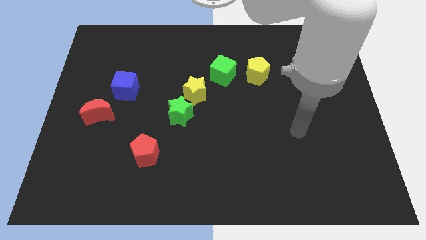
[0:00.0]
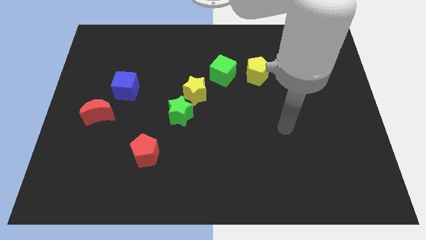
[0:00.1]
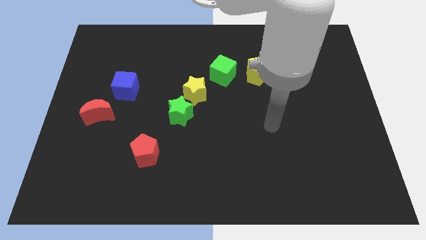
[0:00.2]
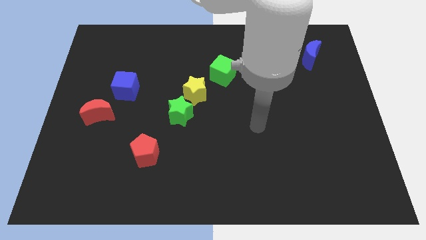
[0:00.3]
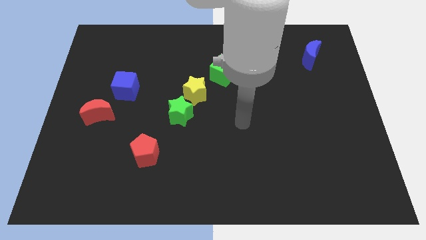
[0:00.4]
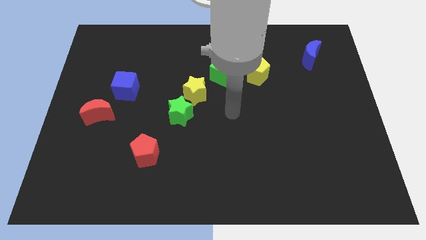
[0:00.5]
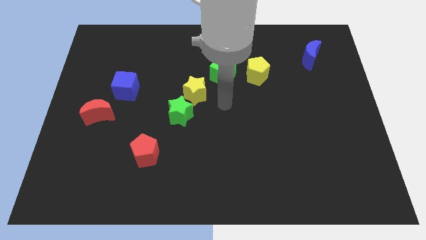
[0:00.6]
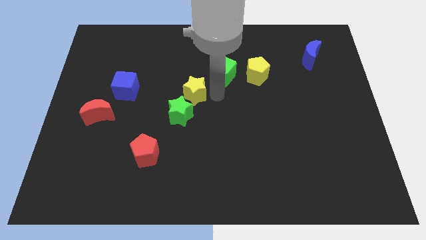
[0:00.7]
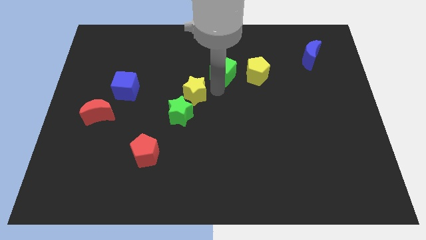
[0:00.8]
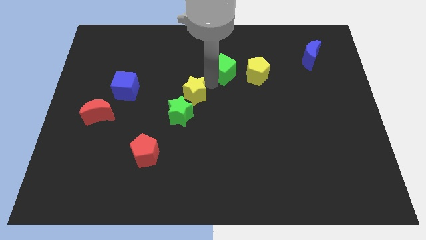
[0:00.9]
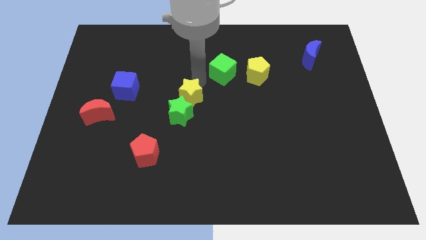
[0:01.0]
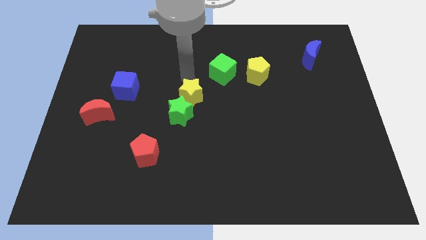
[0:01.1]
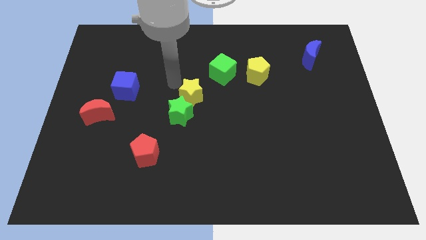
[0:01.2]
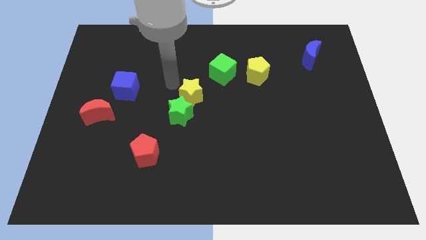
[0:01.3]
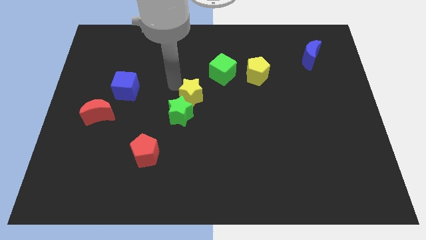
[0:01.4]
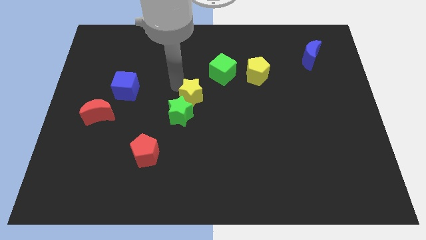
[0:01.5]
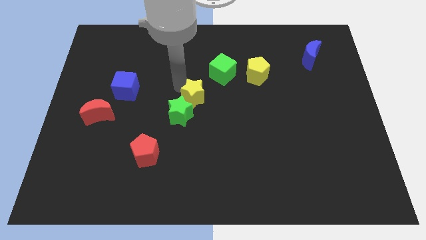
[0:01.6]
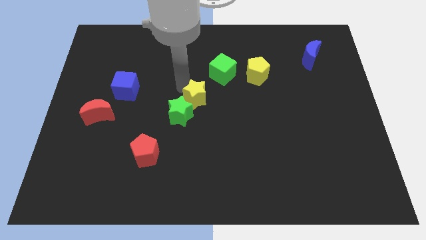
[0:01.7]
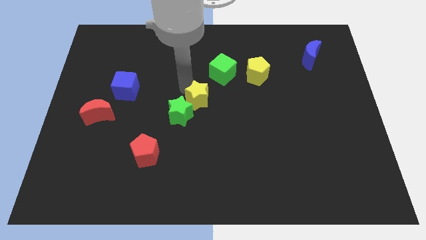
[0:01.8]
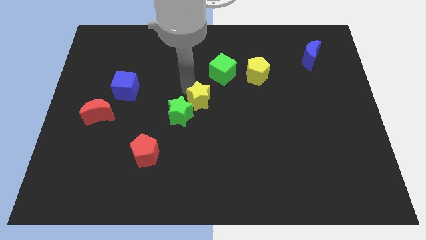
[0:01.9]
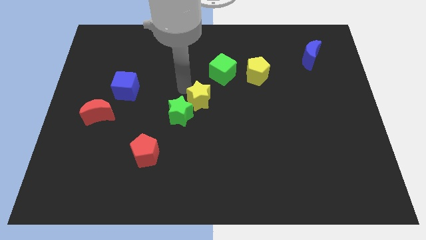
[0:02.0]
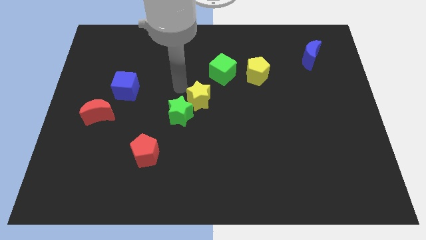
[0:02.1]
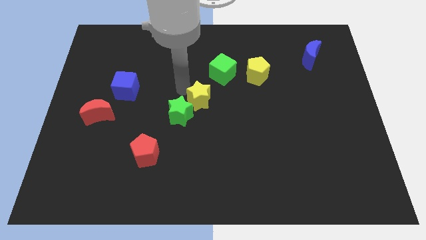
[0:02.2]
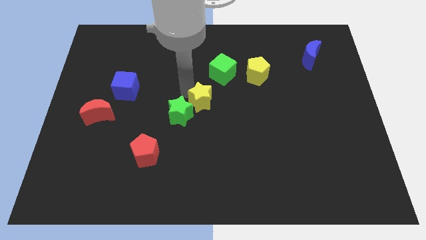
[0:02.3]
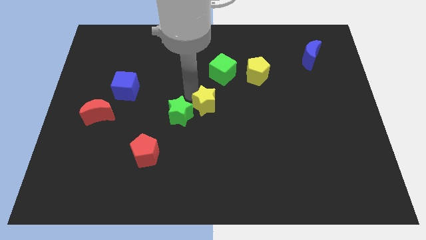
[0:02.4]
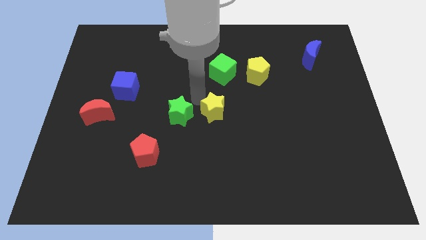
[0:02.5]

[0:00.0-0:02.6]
slide the yellow star down and to the right diagonally a little bit

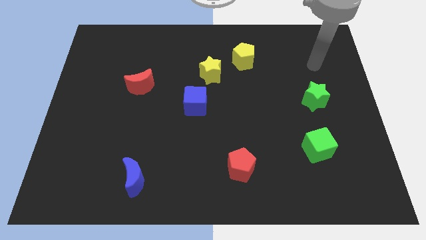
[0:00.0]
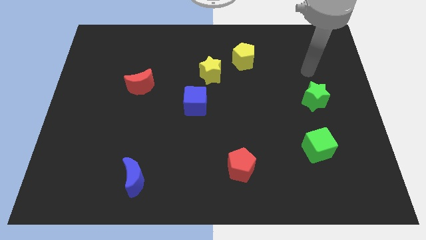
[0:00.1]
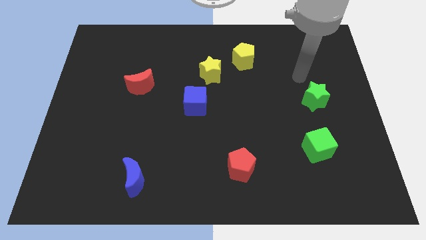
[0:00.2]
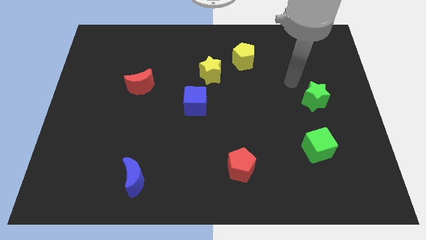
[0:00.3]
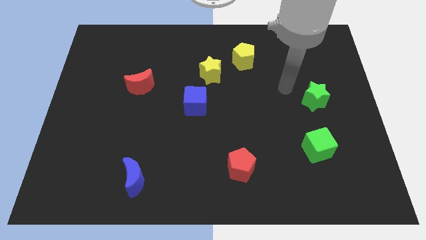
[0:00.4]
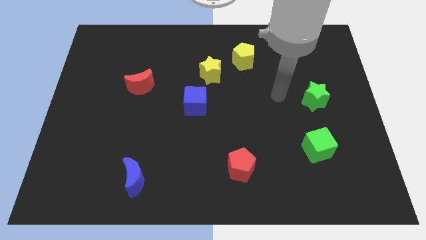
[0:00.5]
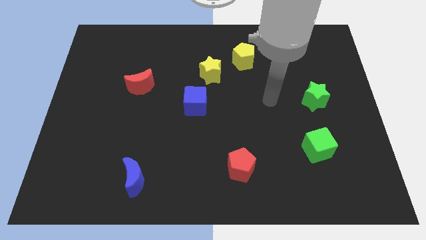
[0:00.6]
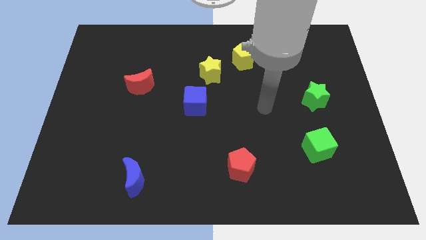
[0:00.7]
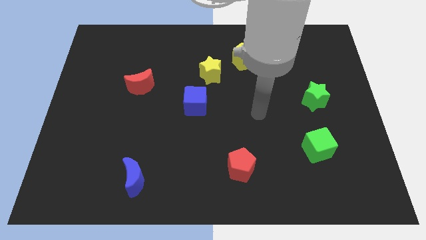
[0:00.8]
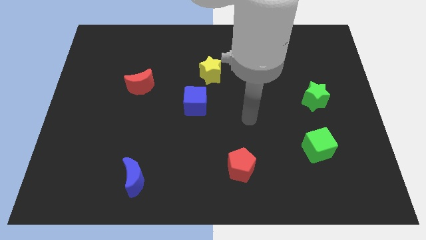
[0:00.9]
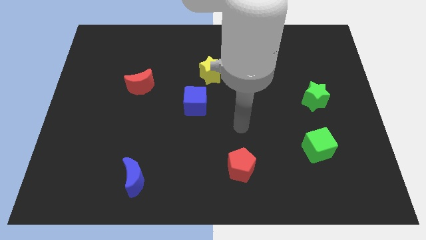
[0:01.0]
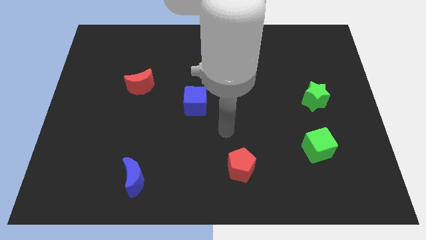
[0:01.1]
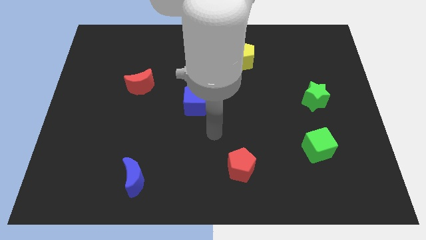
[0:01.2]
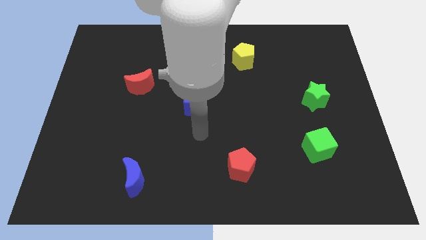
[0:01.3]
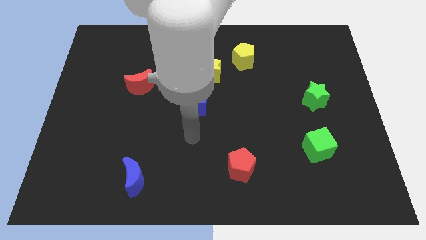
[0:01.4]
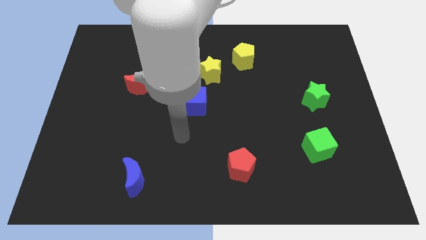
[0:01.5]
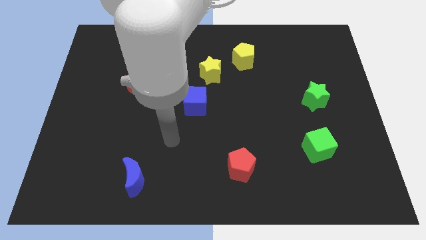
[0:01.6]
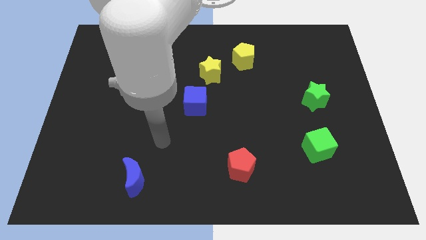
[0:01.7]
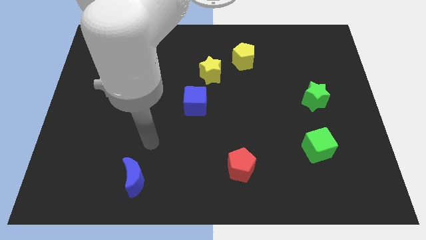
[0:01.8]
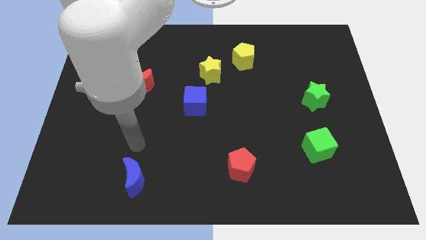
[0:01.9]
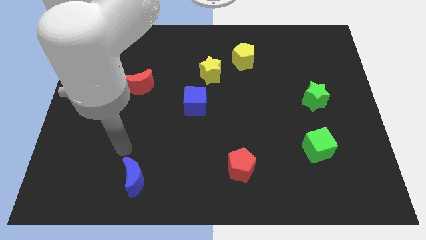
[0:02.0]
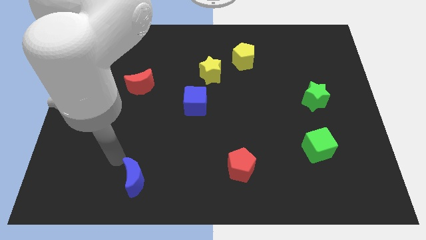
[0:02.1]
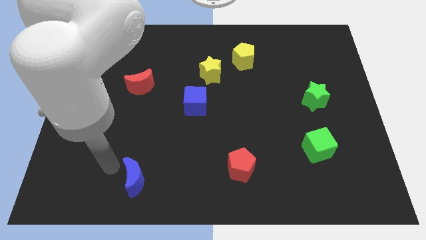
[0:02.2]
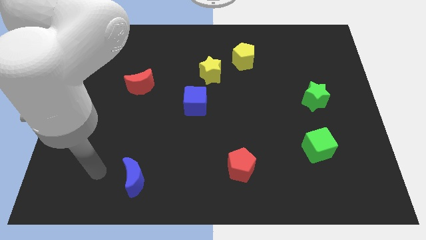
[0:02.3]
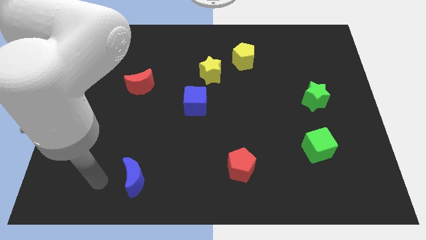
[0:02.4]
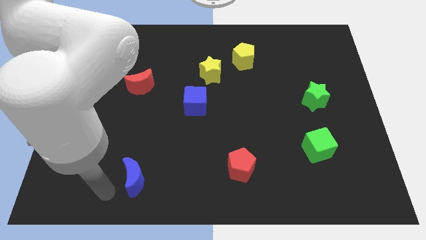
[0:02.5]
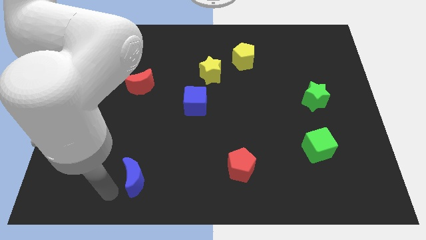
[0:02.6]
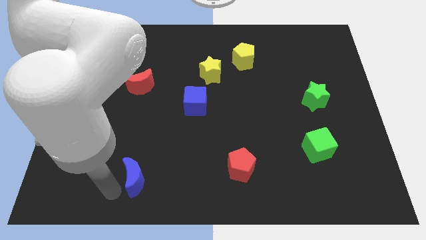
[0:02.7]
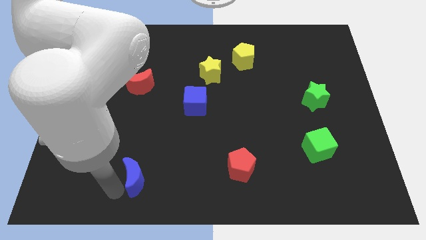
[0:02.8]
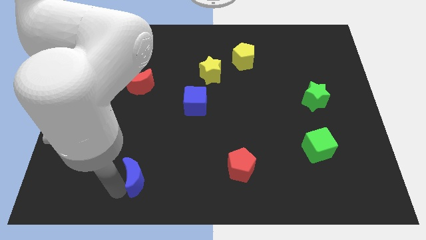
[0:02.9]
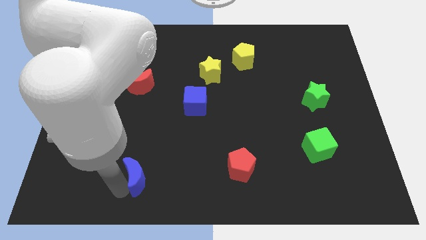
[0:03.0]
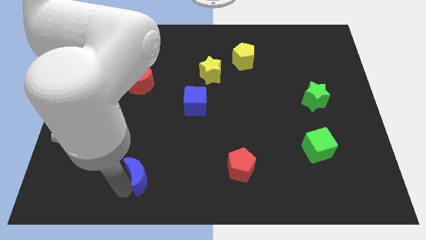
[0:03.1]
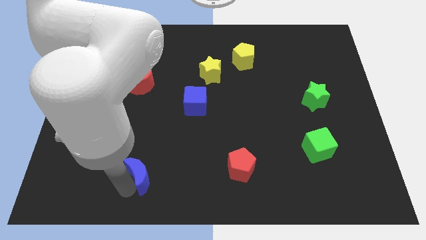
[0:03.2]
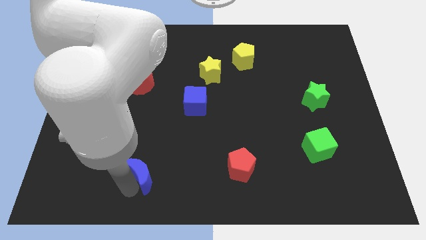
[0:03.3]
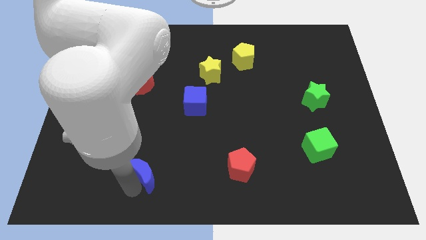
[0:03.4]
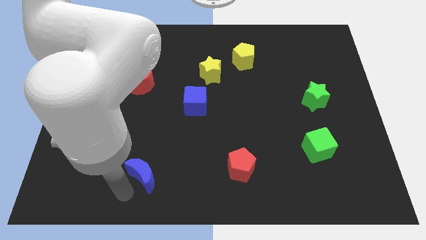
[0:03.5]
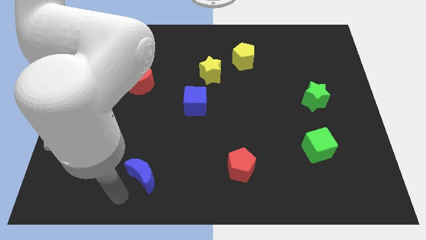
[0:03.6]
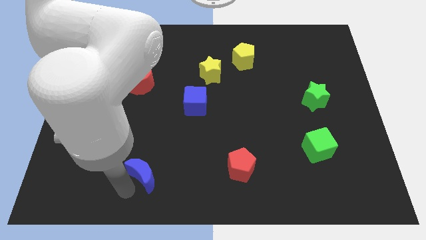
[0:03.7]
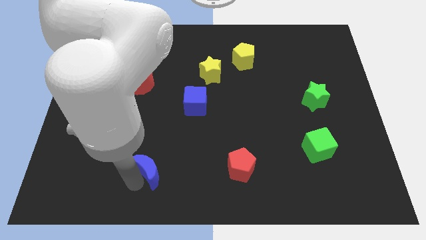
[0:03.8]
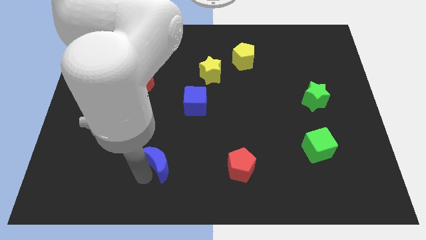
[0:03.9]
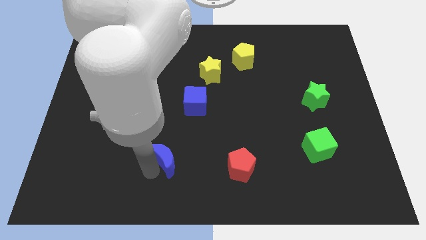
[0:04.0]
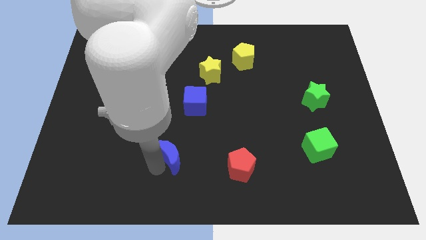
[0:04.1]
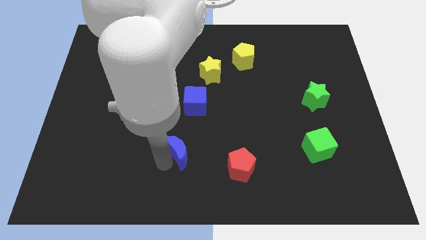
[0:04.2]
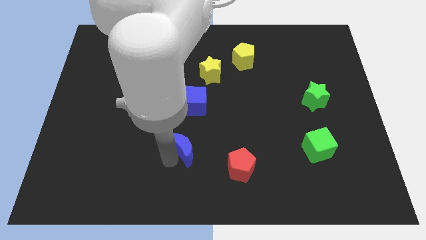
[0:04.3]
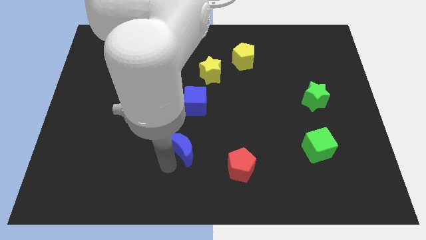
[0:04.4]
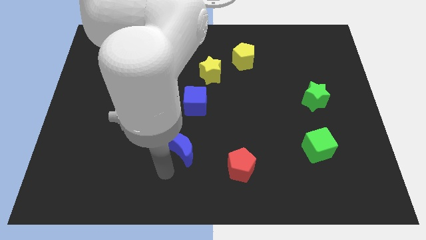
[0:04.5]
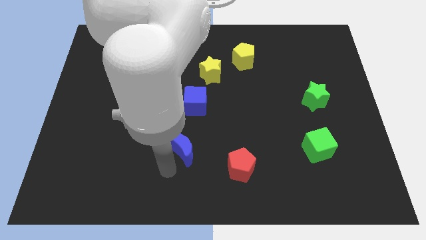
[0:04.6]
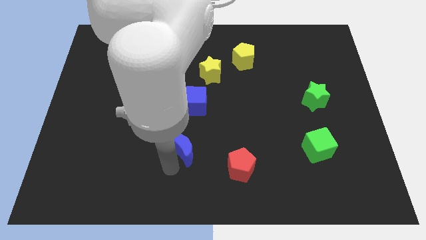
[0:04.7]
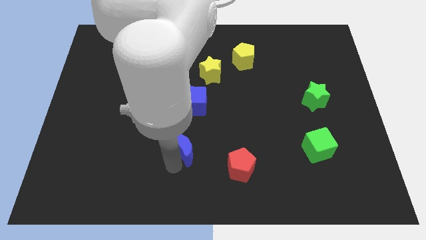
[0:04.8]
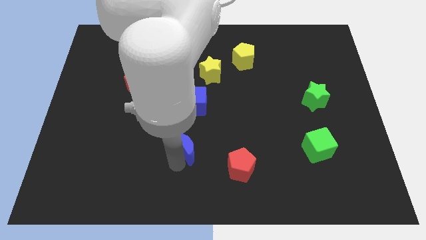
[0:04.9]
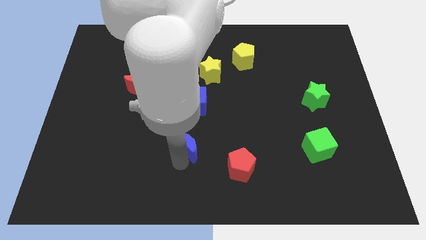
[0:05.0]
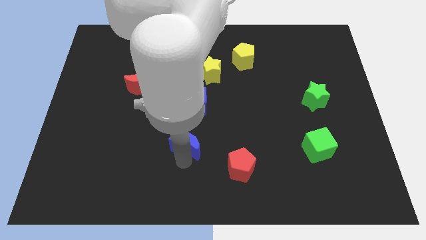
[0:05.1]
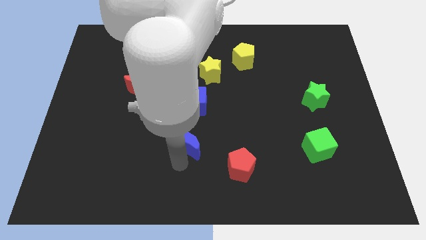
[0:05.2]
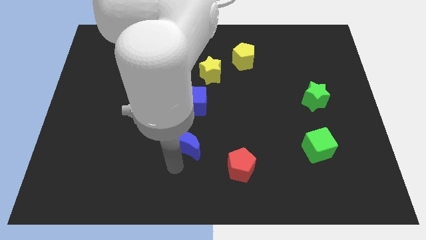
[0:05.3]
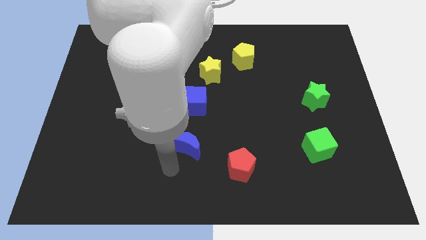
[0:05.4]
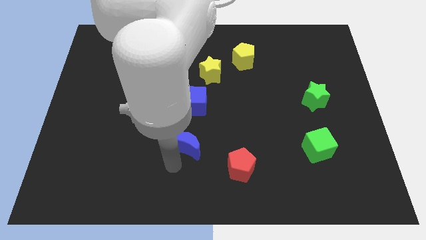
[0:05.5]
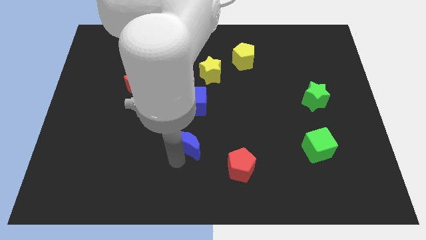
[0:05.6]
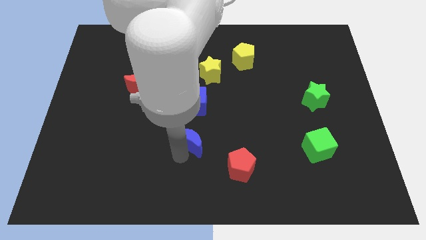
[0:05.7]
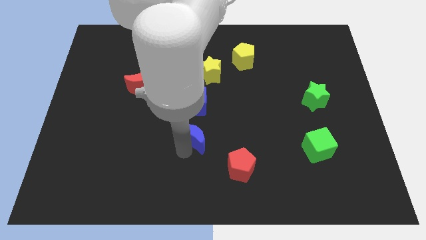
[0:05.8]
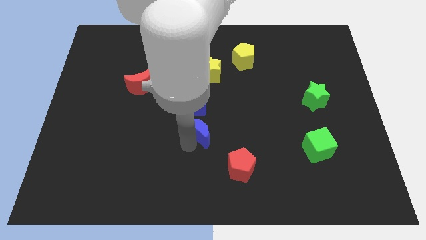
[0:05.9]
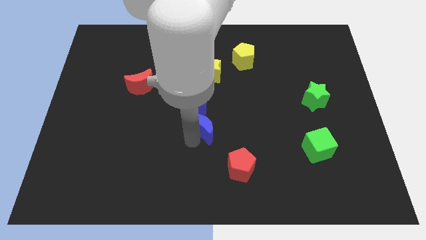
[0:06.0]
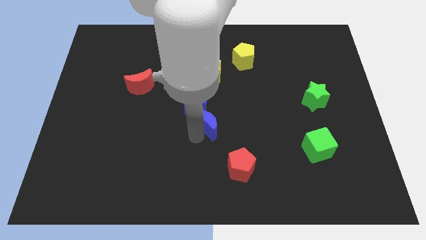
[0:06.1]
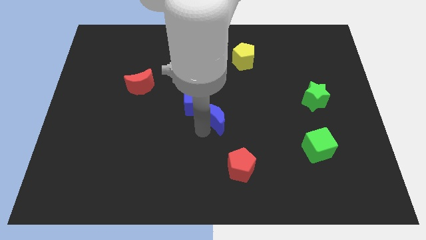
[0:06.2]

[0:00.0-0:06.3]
move the blue moon upwards and to the right diagonally
